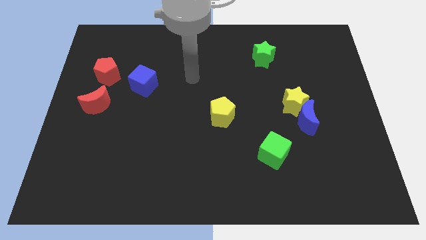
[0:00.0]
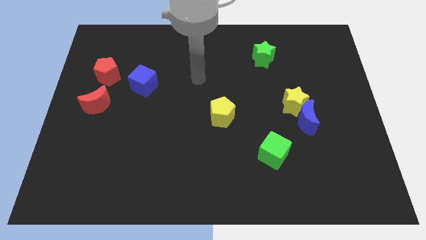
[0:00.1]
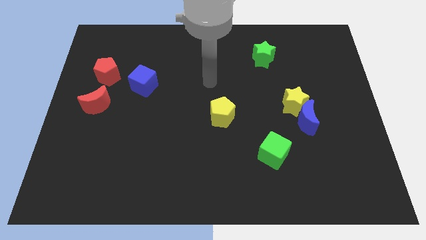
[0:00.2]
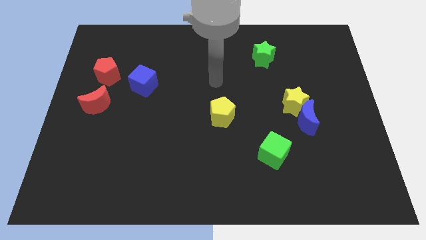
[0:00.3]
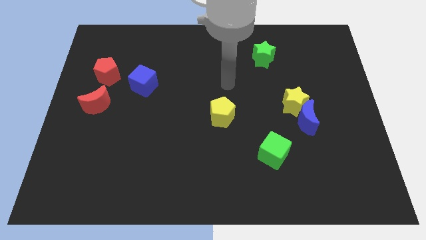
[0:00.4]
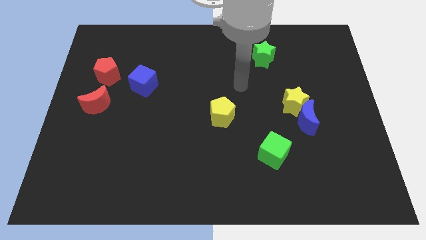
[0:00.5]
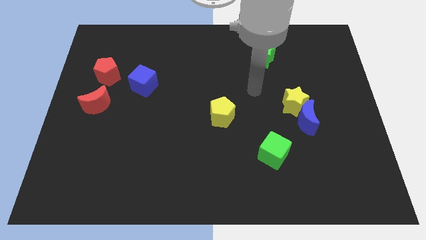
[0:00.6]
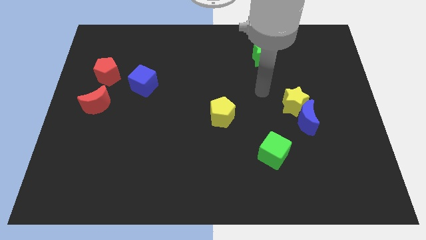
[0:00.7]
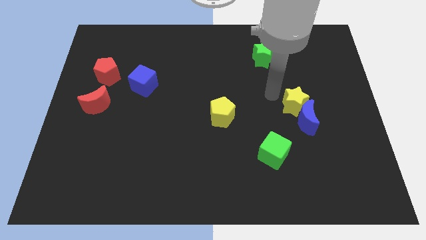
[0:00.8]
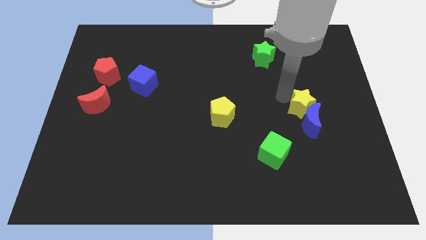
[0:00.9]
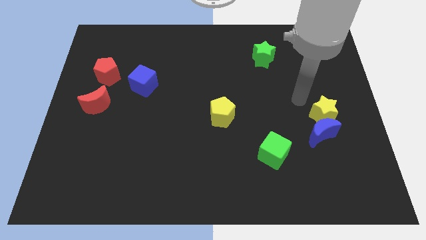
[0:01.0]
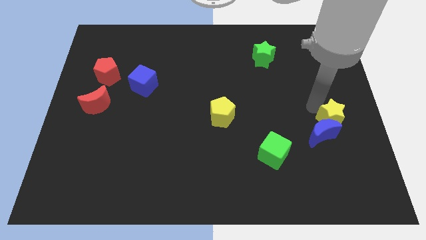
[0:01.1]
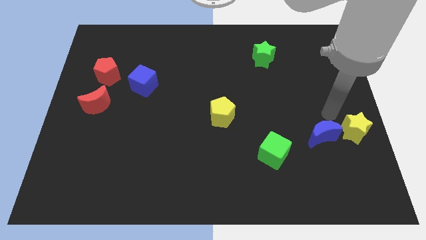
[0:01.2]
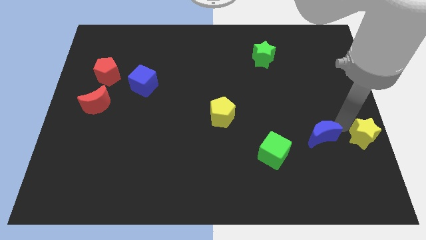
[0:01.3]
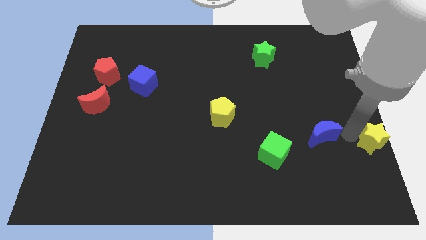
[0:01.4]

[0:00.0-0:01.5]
pull the blue moon apart from the yellow star

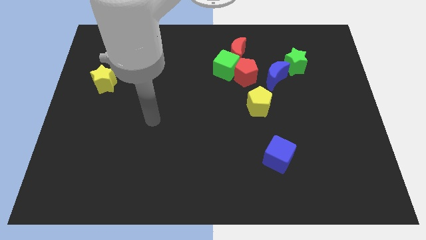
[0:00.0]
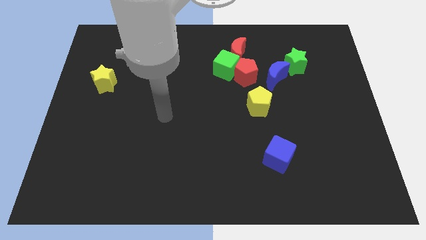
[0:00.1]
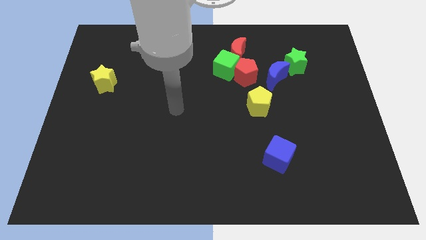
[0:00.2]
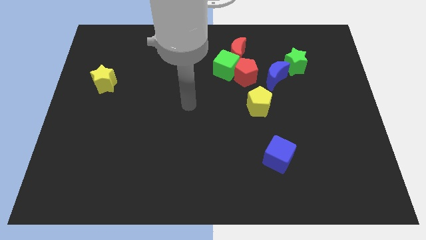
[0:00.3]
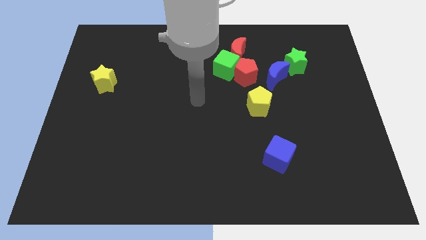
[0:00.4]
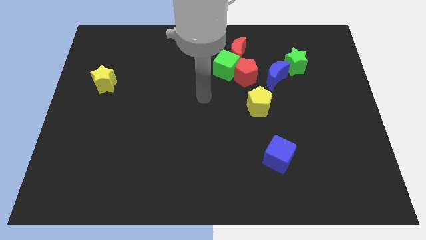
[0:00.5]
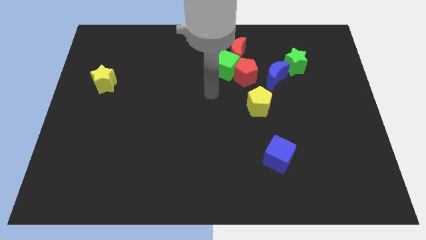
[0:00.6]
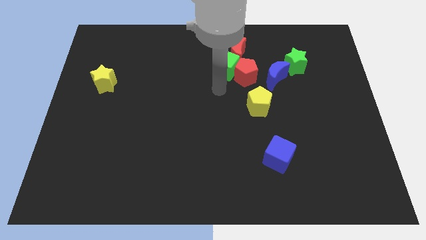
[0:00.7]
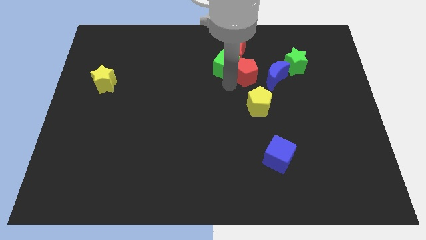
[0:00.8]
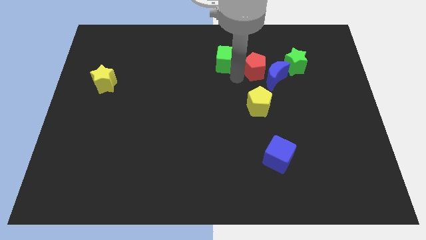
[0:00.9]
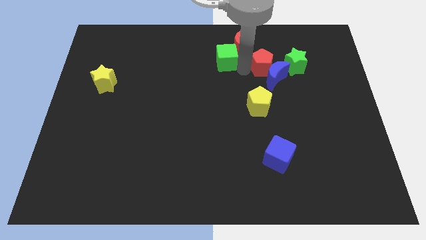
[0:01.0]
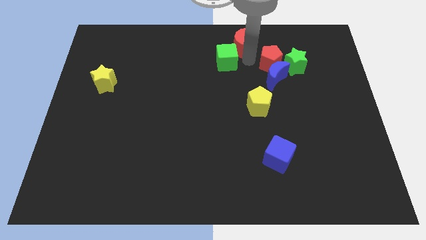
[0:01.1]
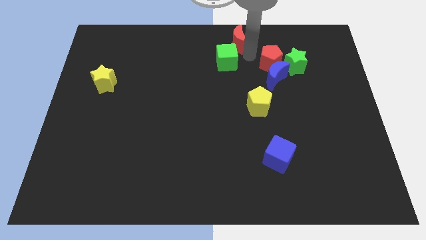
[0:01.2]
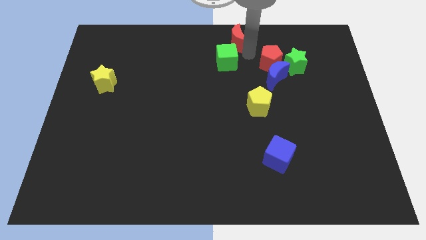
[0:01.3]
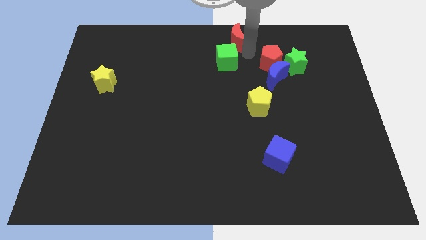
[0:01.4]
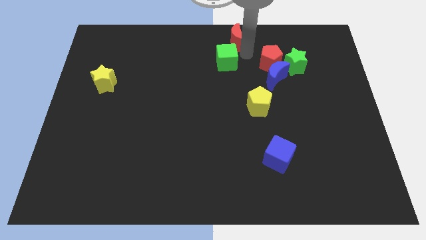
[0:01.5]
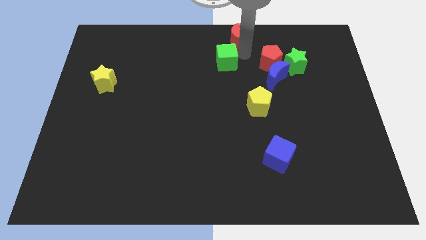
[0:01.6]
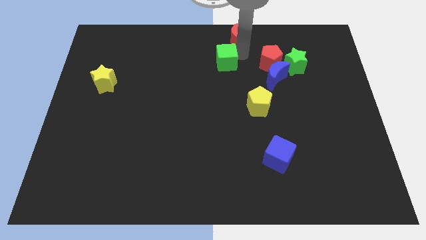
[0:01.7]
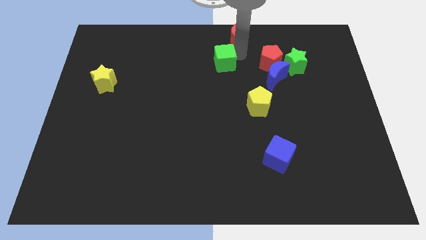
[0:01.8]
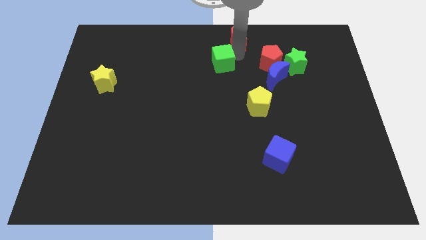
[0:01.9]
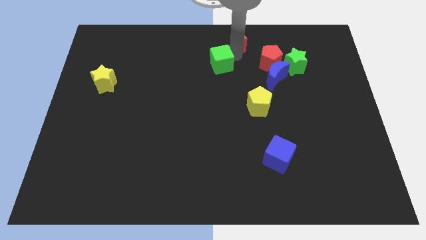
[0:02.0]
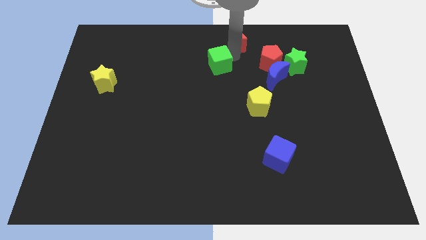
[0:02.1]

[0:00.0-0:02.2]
pull the green cube apart from the red pentagon and red moon

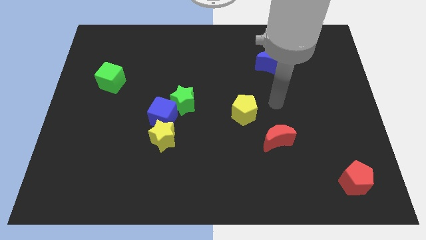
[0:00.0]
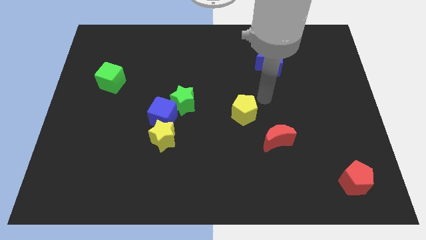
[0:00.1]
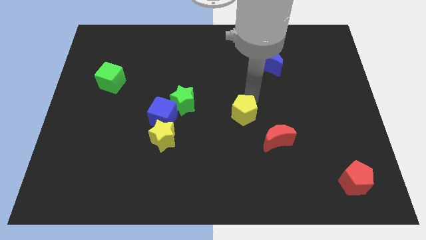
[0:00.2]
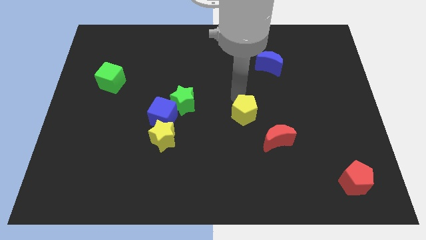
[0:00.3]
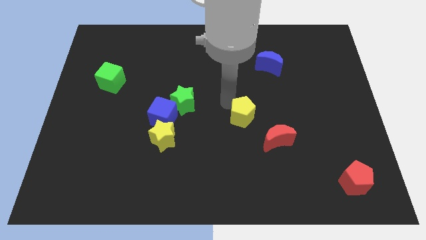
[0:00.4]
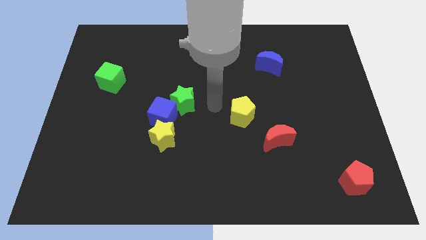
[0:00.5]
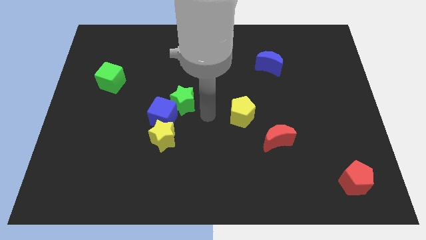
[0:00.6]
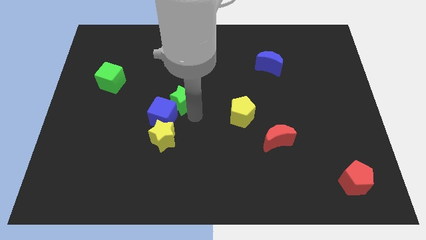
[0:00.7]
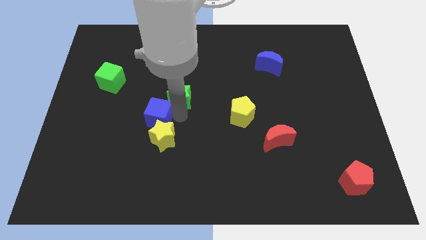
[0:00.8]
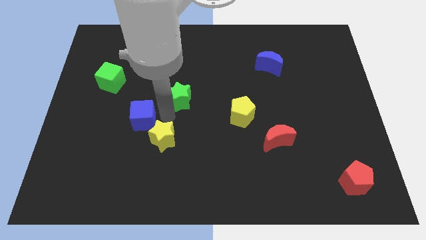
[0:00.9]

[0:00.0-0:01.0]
separate the green star from the blue cube

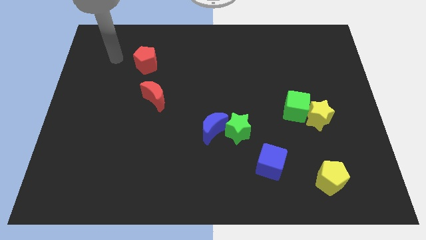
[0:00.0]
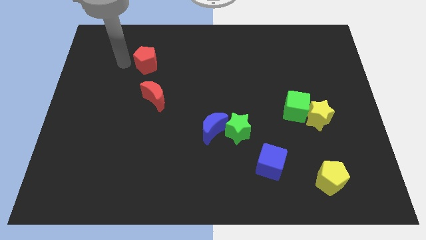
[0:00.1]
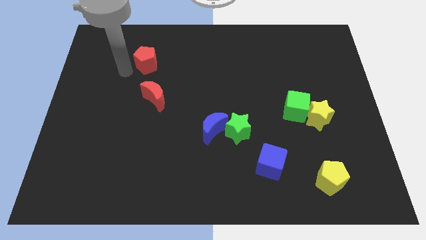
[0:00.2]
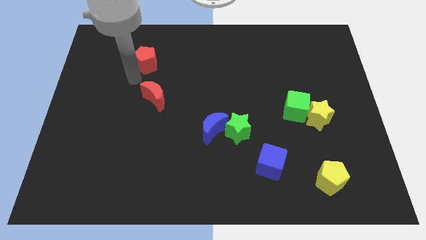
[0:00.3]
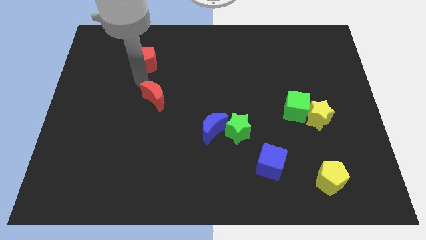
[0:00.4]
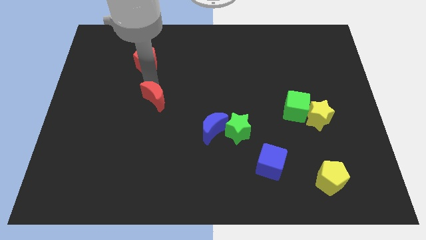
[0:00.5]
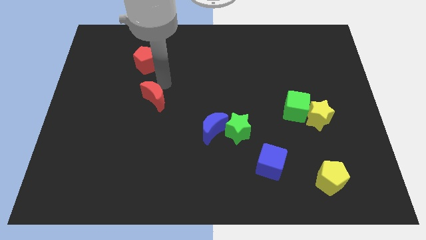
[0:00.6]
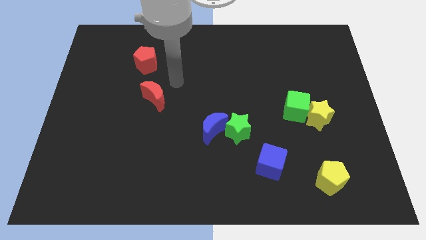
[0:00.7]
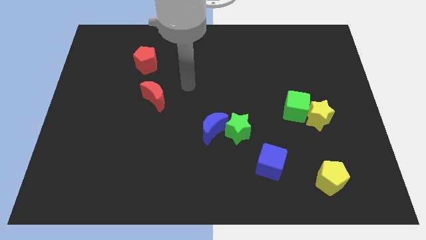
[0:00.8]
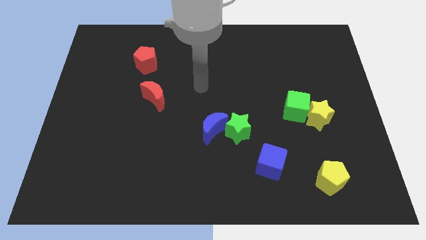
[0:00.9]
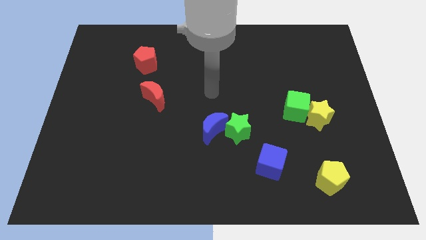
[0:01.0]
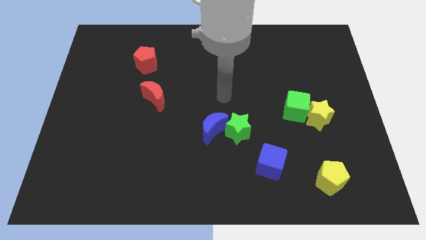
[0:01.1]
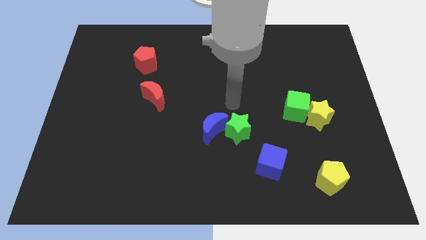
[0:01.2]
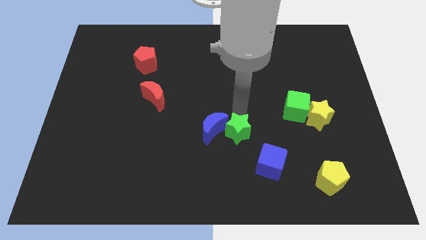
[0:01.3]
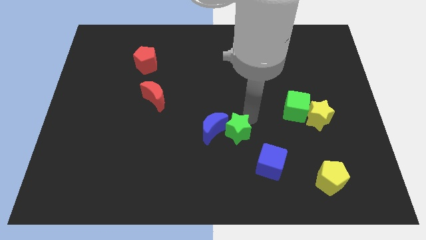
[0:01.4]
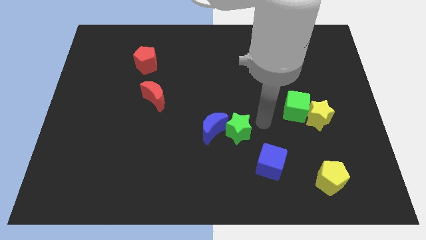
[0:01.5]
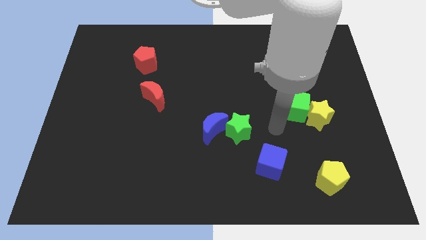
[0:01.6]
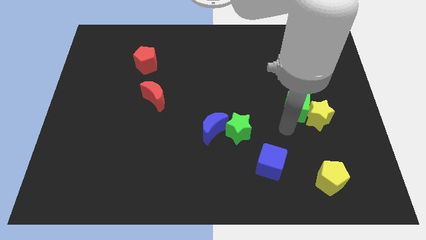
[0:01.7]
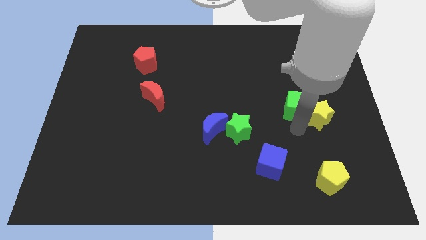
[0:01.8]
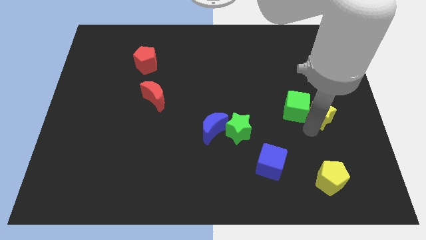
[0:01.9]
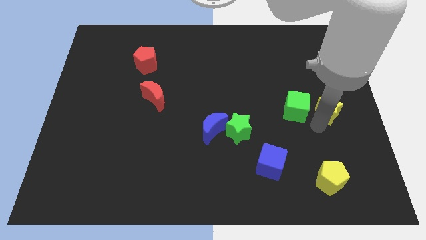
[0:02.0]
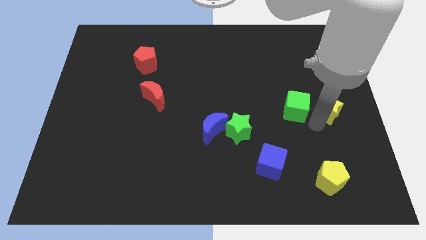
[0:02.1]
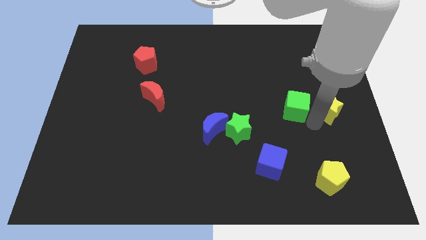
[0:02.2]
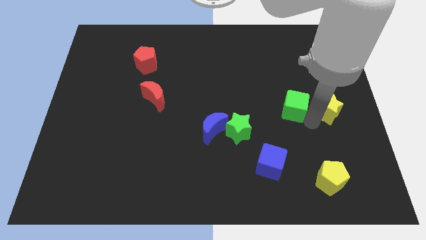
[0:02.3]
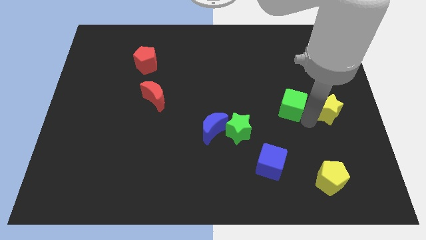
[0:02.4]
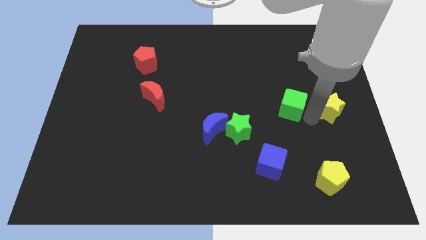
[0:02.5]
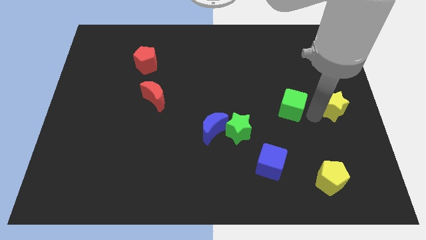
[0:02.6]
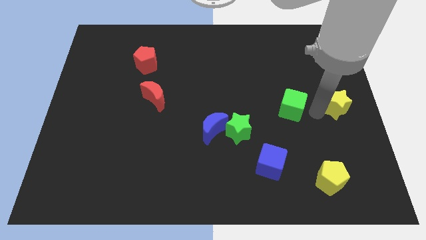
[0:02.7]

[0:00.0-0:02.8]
separate the green cube from the yellow star

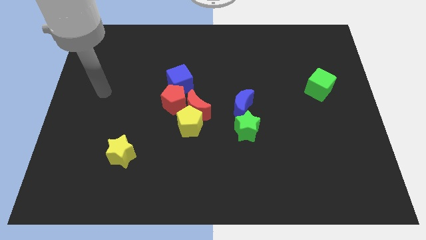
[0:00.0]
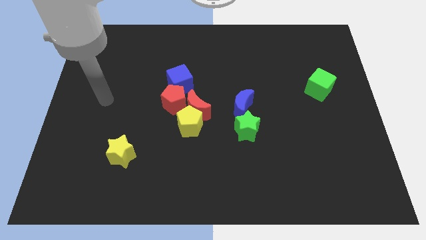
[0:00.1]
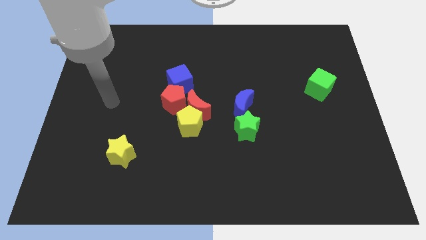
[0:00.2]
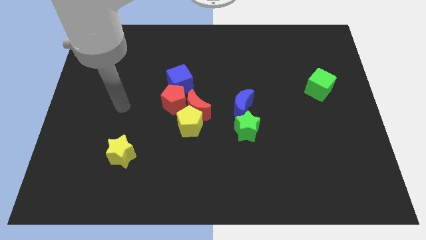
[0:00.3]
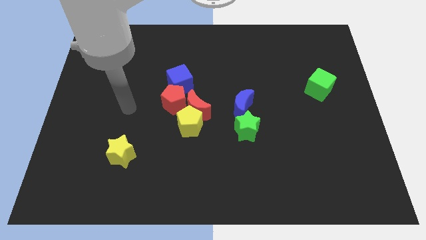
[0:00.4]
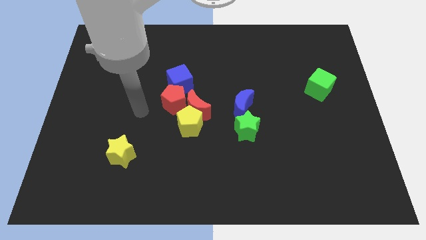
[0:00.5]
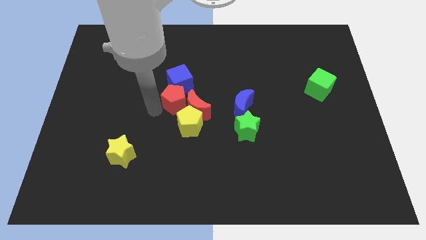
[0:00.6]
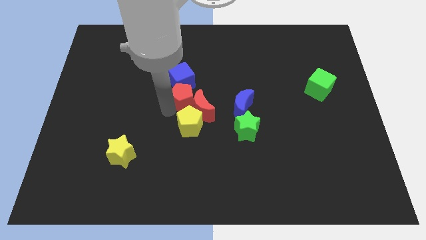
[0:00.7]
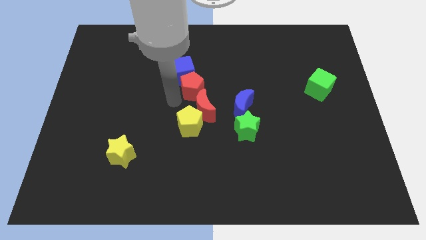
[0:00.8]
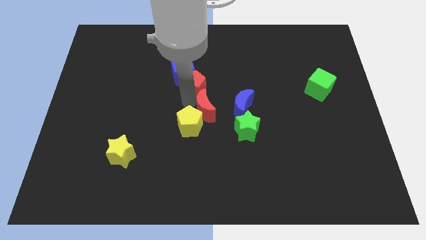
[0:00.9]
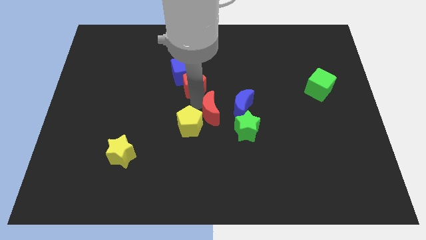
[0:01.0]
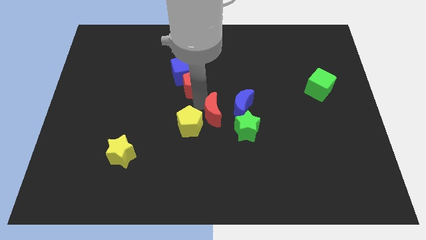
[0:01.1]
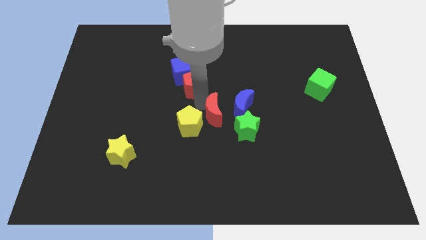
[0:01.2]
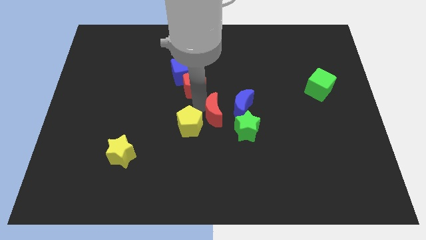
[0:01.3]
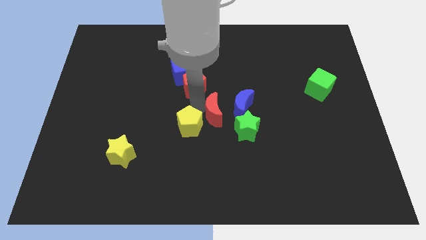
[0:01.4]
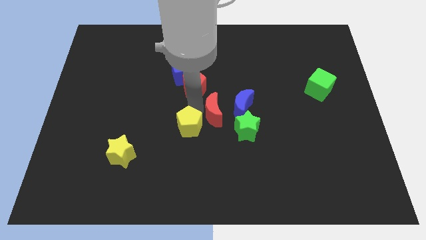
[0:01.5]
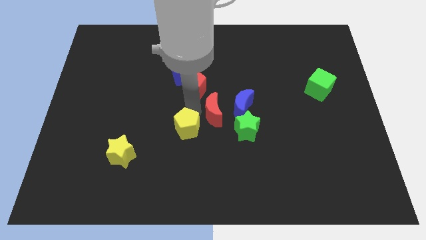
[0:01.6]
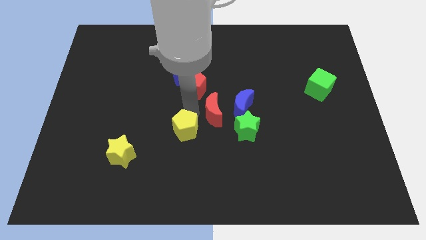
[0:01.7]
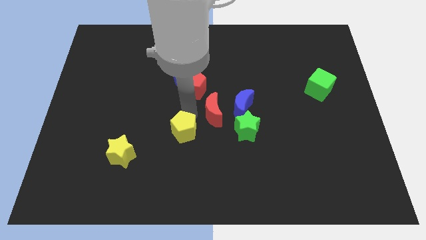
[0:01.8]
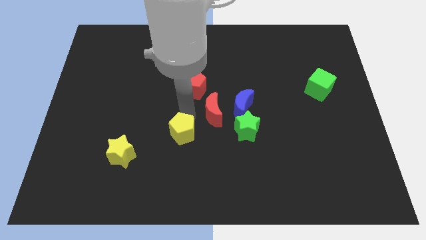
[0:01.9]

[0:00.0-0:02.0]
pull the yellow pentagon apart from the red moon and red pentagon
